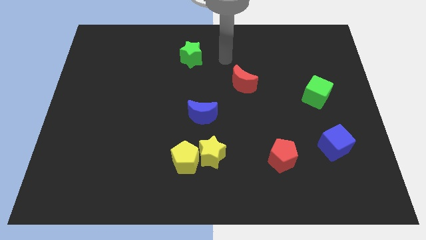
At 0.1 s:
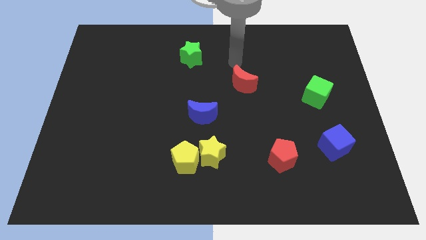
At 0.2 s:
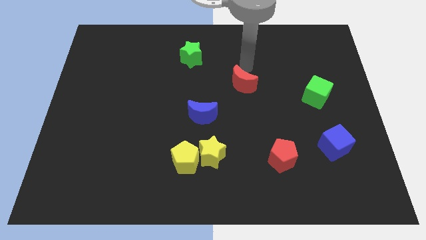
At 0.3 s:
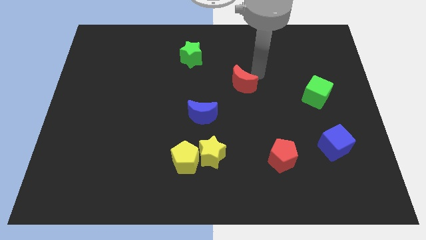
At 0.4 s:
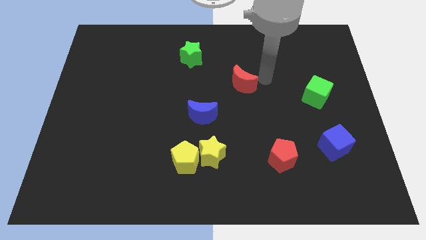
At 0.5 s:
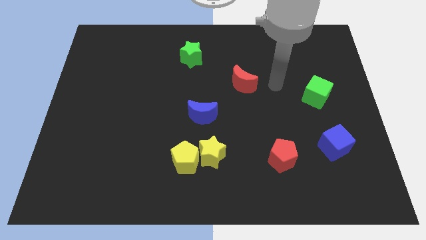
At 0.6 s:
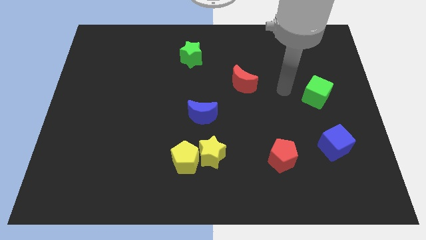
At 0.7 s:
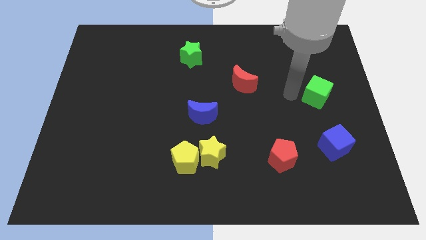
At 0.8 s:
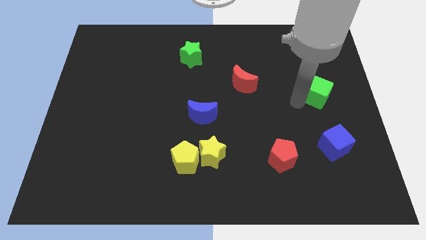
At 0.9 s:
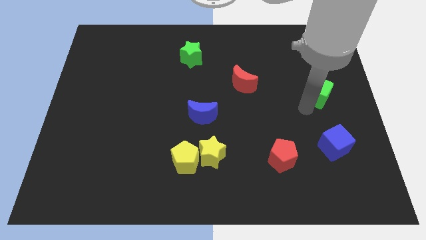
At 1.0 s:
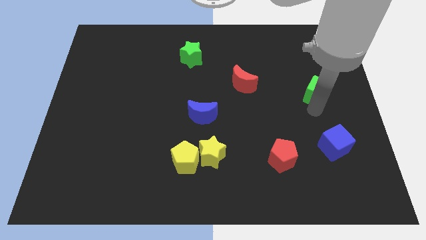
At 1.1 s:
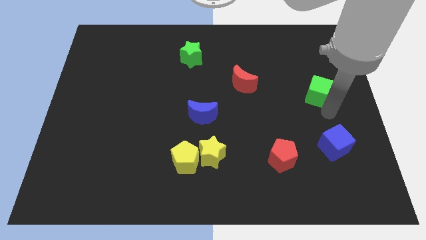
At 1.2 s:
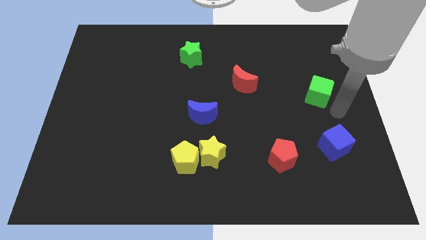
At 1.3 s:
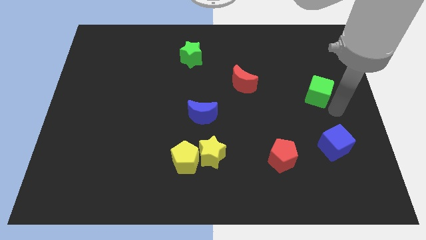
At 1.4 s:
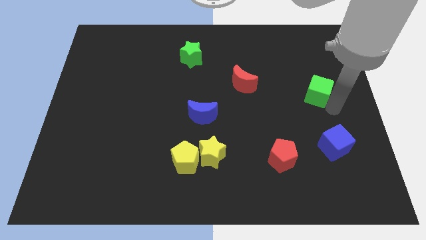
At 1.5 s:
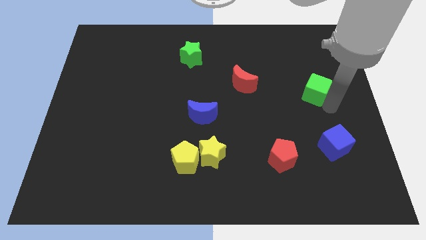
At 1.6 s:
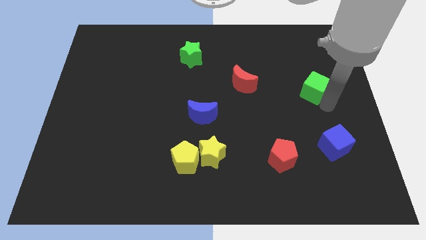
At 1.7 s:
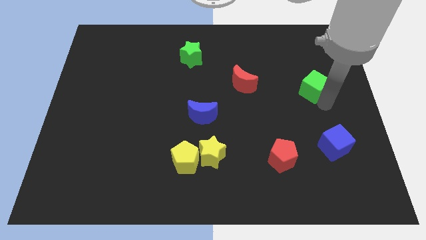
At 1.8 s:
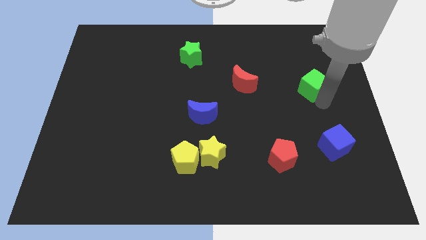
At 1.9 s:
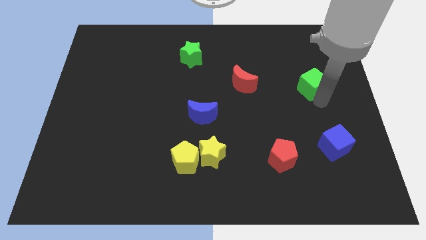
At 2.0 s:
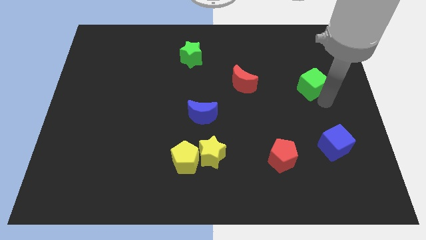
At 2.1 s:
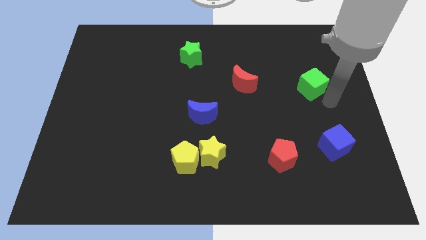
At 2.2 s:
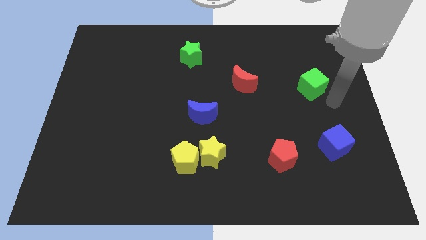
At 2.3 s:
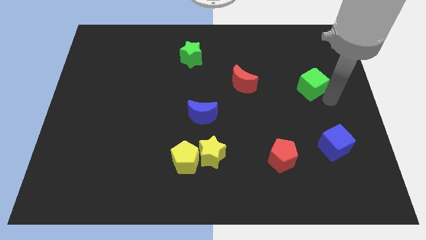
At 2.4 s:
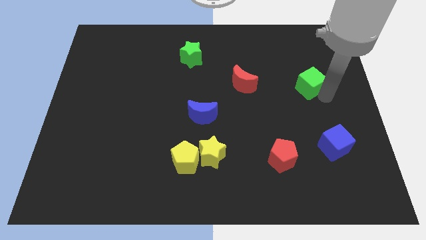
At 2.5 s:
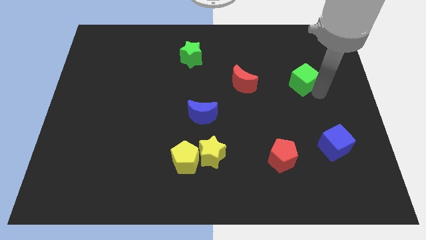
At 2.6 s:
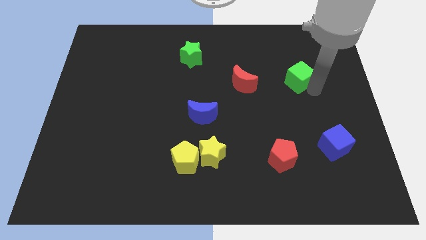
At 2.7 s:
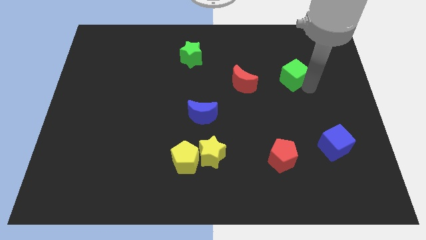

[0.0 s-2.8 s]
slightly move the green cube upwards and then to the left

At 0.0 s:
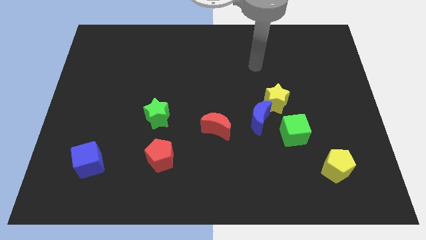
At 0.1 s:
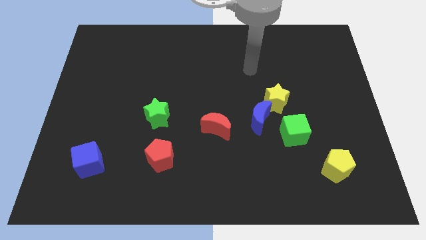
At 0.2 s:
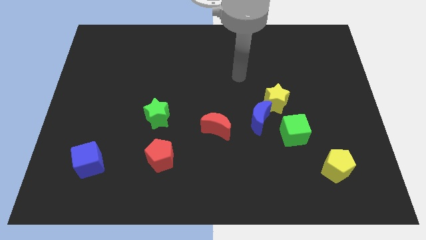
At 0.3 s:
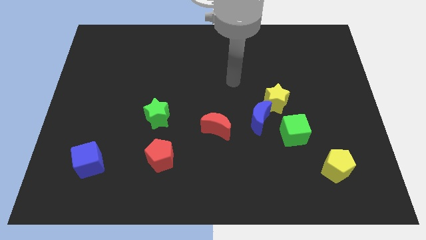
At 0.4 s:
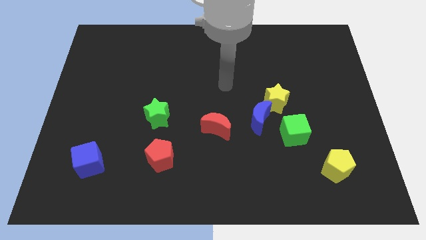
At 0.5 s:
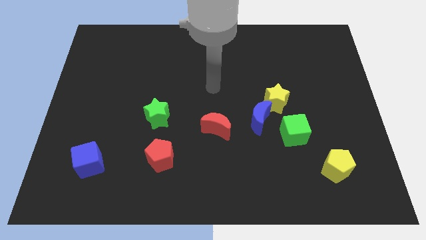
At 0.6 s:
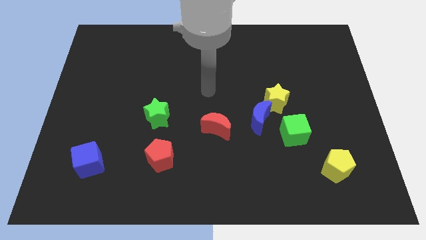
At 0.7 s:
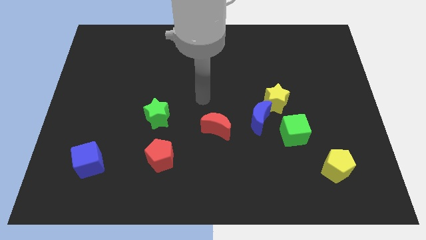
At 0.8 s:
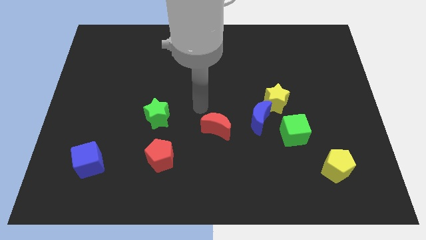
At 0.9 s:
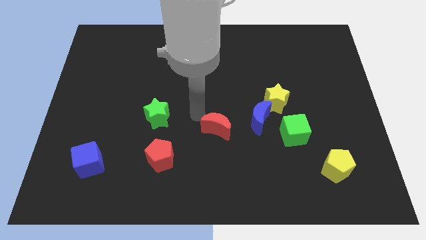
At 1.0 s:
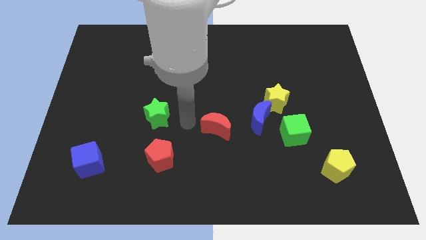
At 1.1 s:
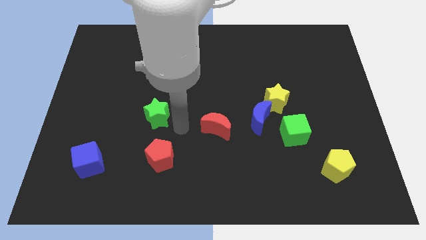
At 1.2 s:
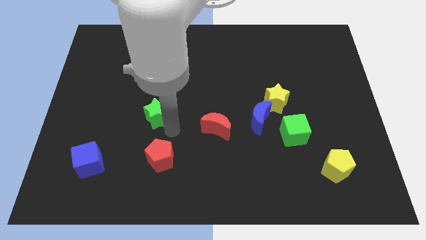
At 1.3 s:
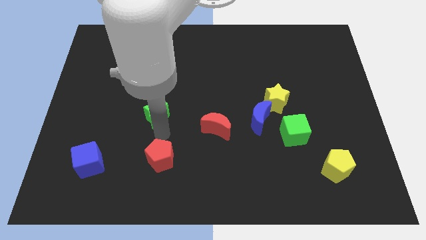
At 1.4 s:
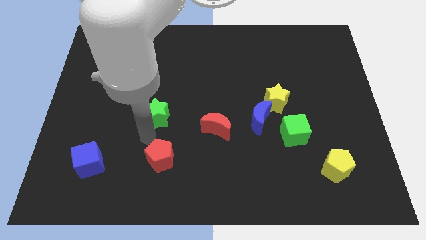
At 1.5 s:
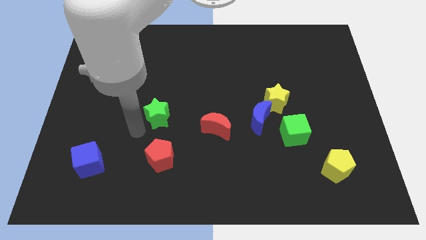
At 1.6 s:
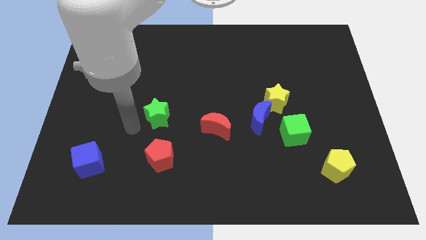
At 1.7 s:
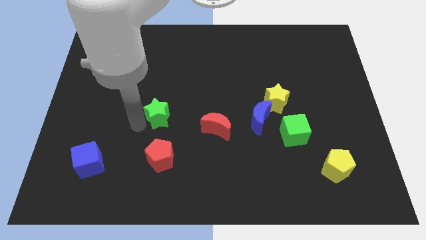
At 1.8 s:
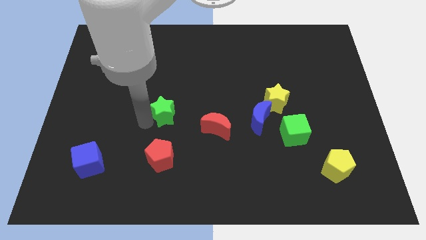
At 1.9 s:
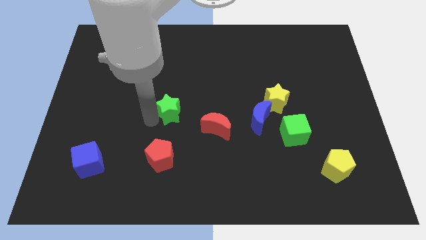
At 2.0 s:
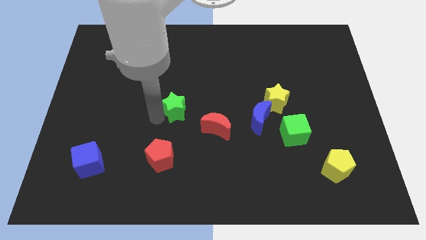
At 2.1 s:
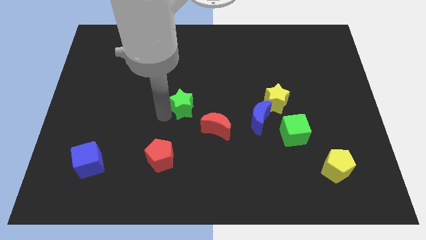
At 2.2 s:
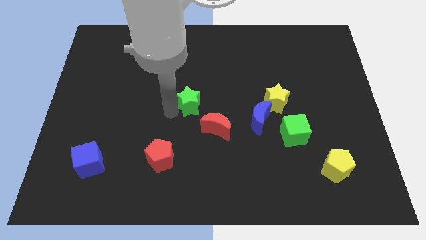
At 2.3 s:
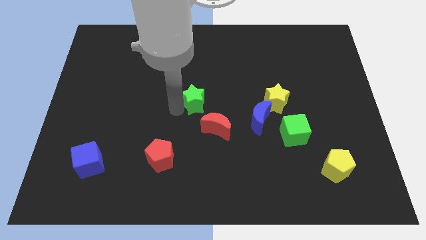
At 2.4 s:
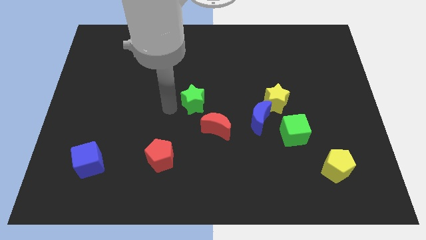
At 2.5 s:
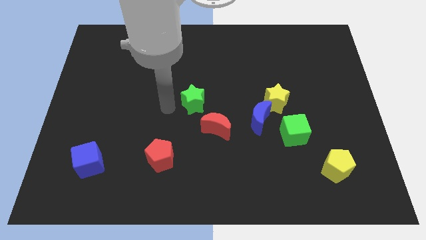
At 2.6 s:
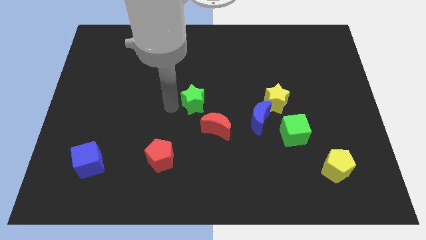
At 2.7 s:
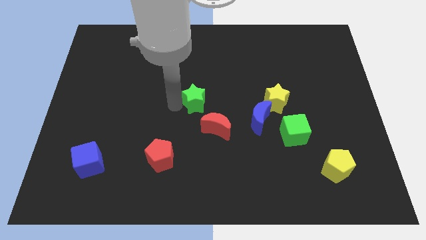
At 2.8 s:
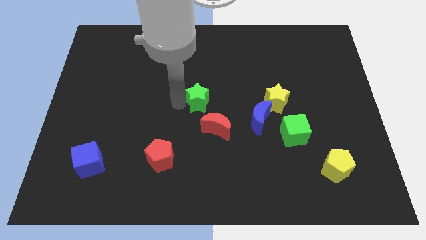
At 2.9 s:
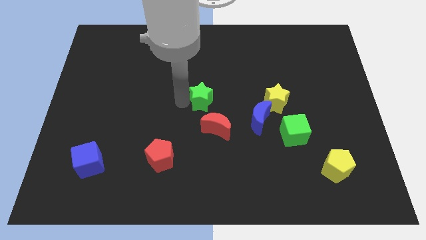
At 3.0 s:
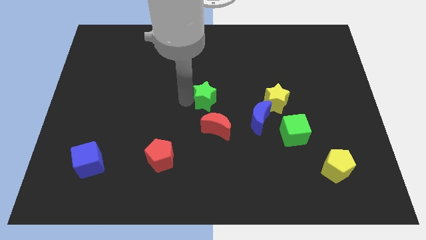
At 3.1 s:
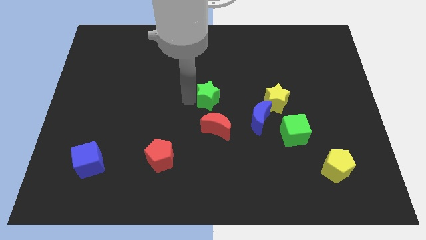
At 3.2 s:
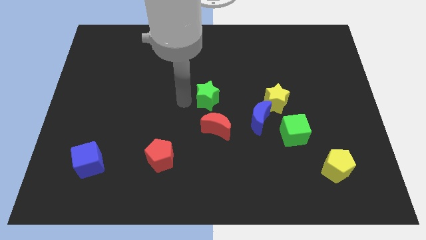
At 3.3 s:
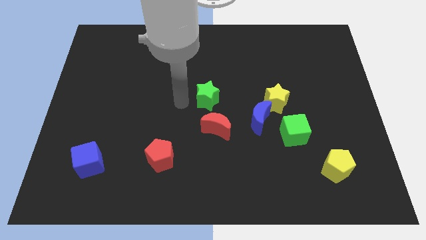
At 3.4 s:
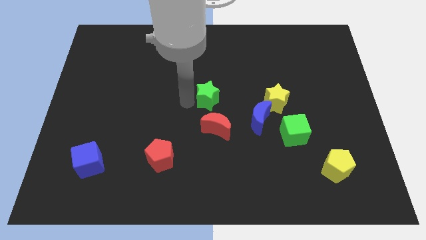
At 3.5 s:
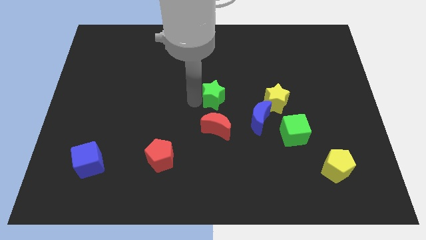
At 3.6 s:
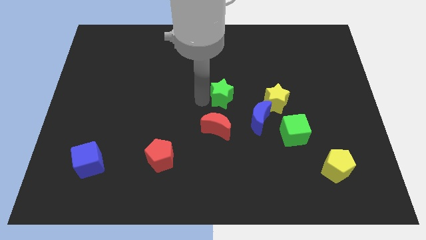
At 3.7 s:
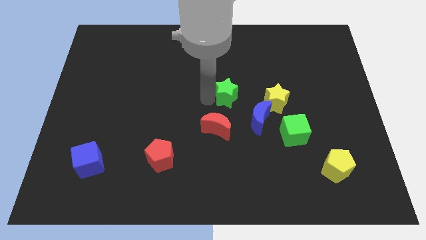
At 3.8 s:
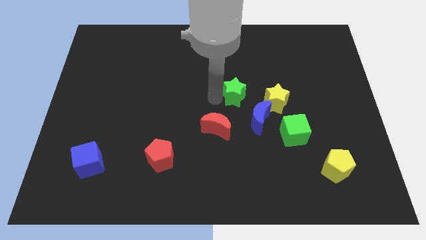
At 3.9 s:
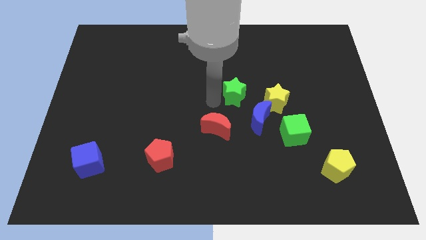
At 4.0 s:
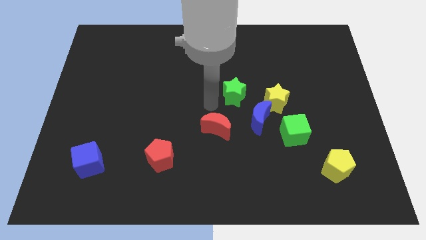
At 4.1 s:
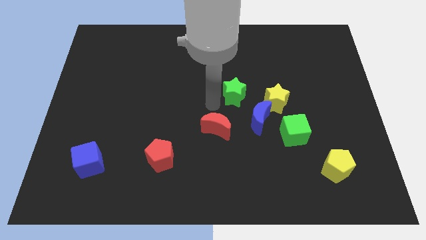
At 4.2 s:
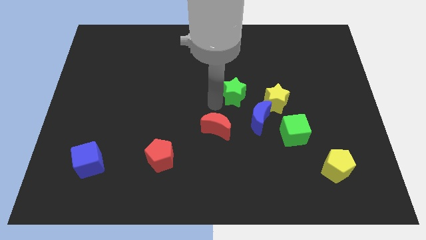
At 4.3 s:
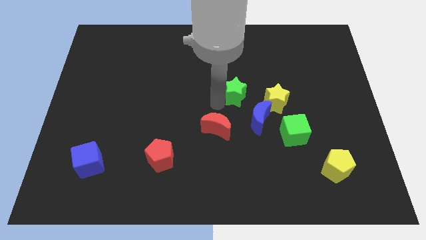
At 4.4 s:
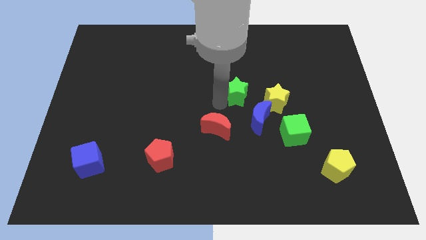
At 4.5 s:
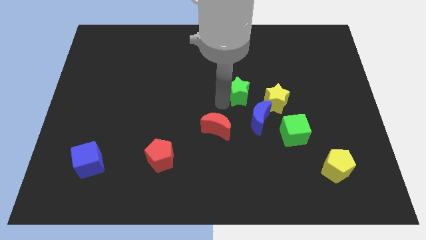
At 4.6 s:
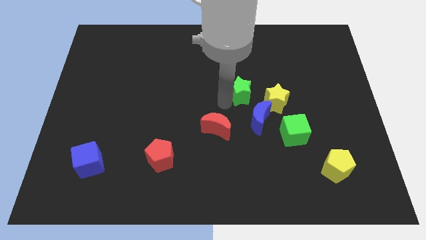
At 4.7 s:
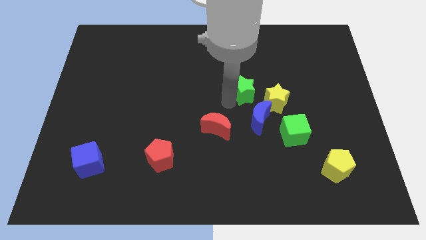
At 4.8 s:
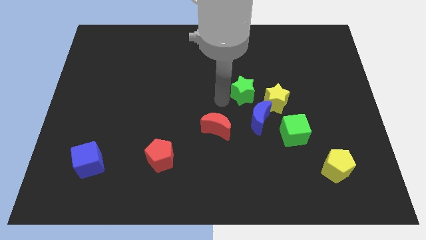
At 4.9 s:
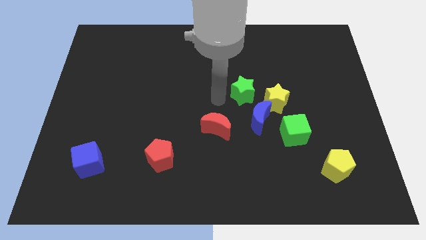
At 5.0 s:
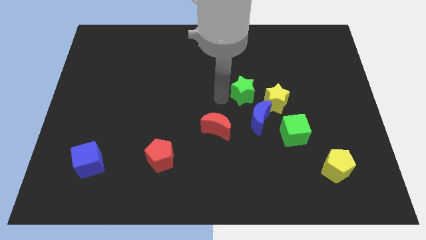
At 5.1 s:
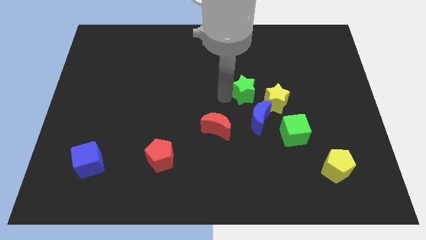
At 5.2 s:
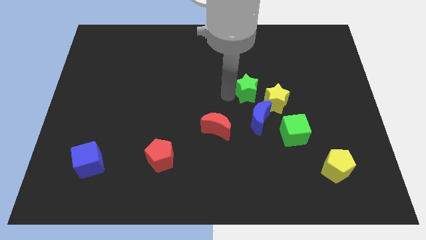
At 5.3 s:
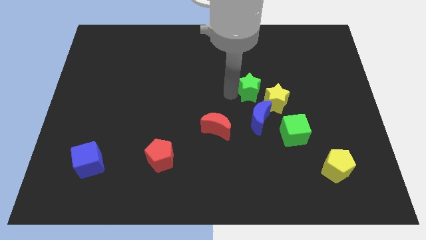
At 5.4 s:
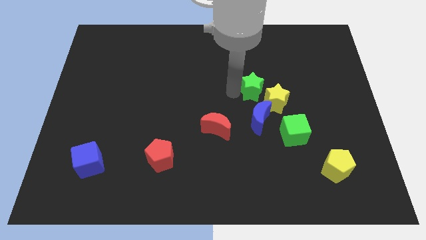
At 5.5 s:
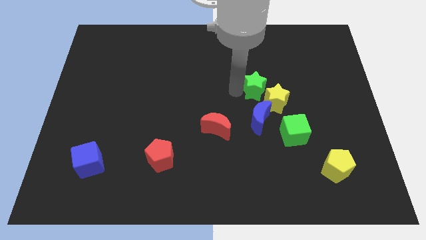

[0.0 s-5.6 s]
push the green star right
